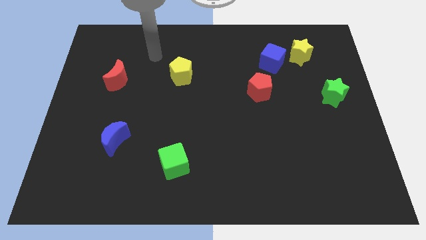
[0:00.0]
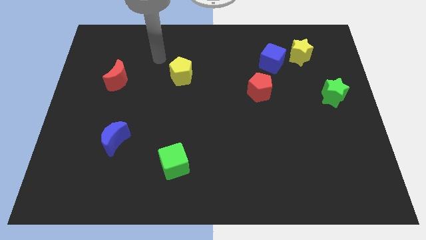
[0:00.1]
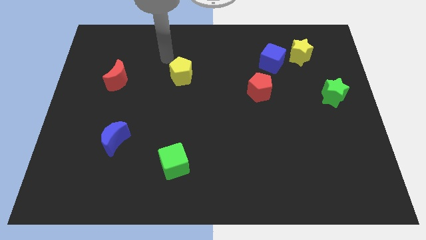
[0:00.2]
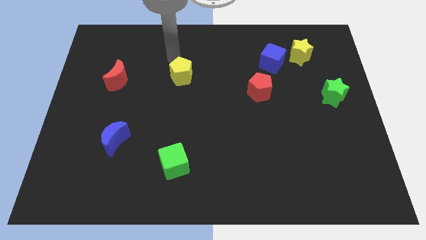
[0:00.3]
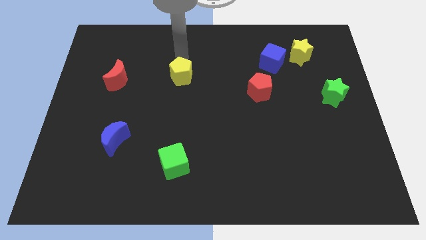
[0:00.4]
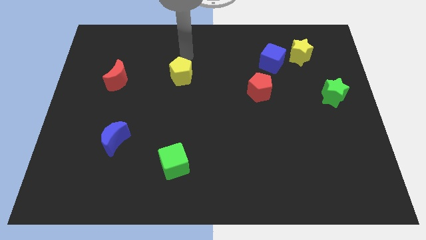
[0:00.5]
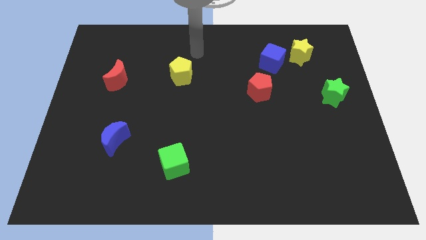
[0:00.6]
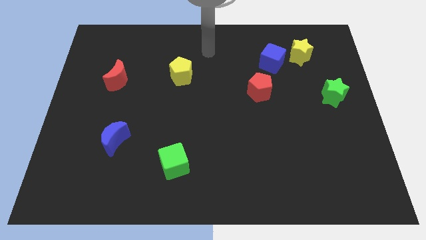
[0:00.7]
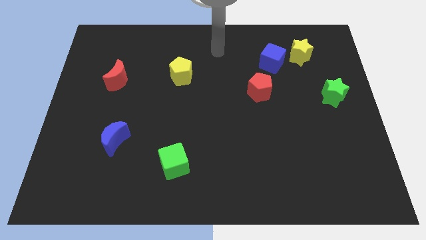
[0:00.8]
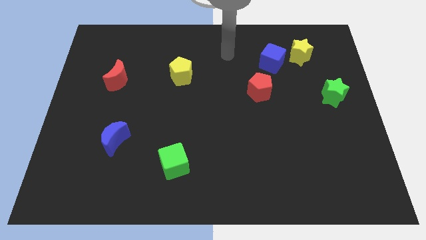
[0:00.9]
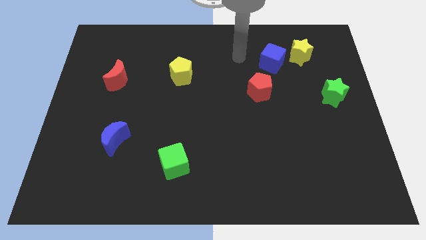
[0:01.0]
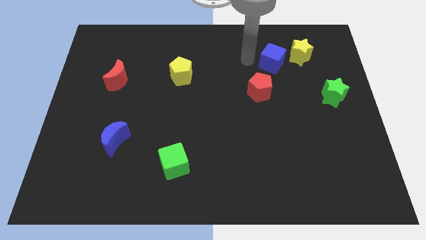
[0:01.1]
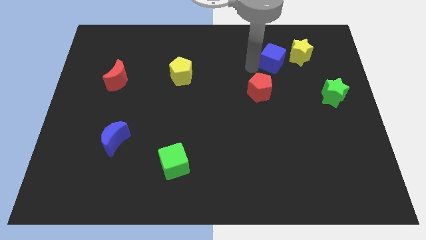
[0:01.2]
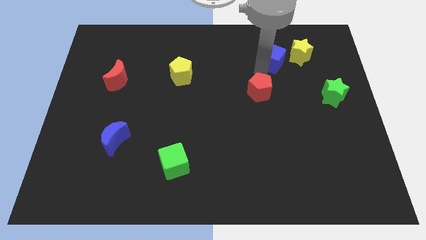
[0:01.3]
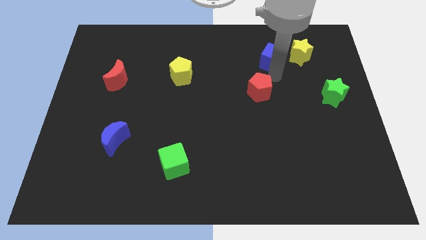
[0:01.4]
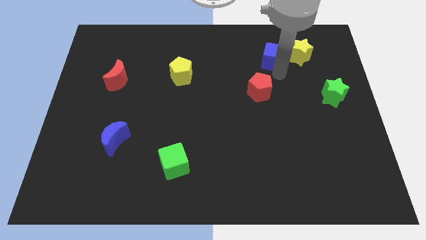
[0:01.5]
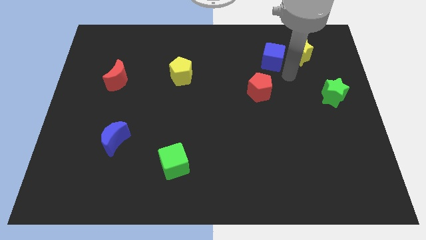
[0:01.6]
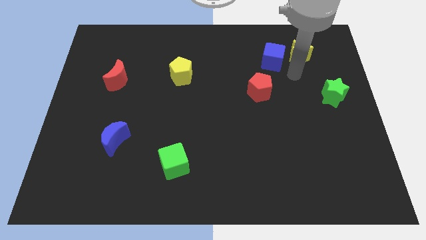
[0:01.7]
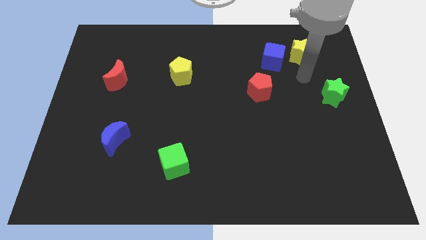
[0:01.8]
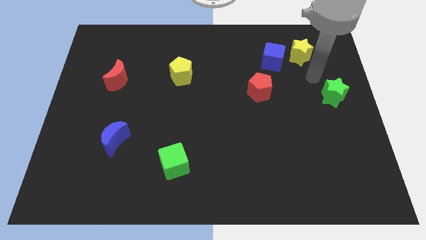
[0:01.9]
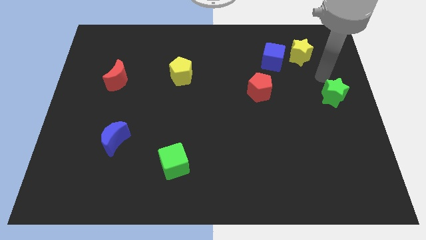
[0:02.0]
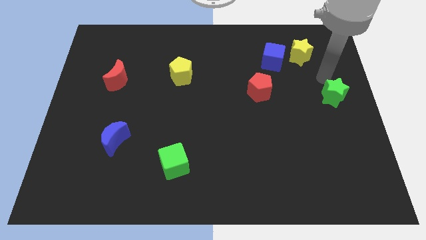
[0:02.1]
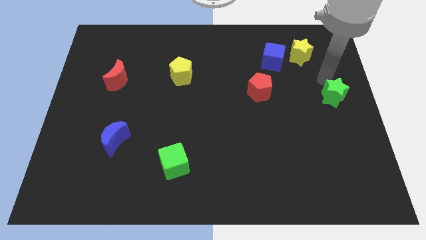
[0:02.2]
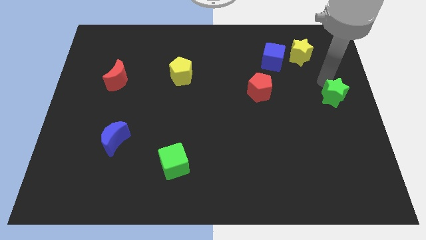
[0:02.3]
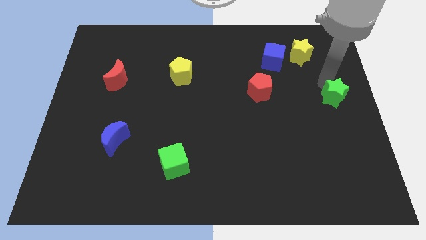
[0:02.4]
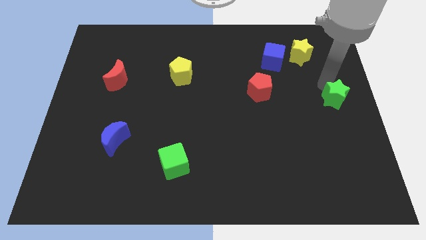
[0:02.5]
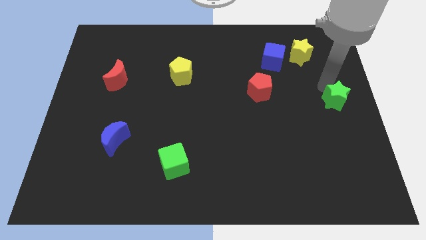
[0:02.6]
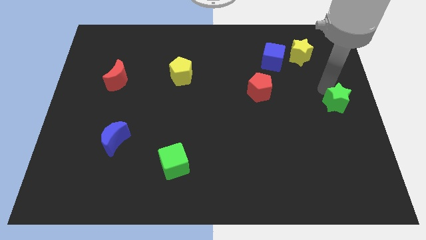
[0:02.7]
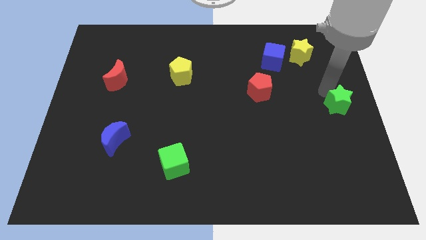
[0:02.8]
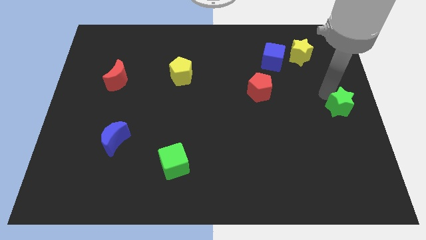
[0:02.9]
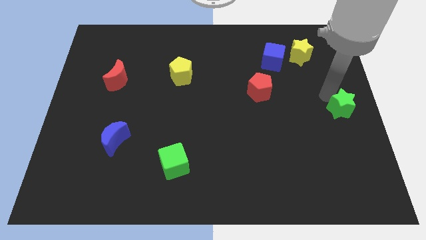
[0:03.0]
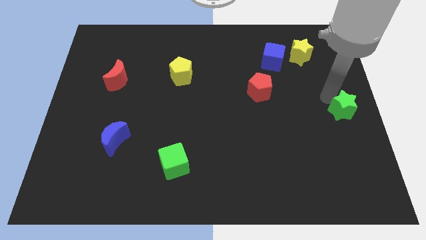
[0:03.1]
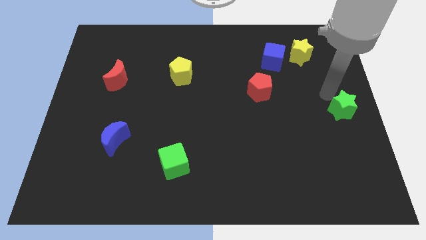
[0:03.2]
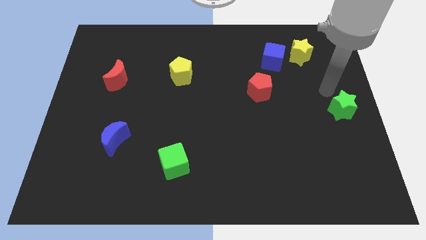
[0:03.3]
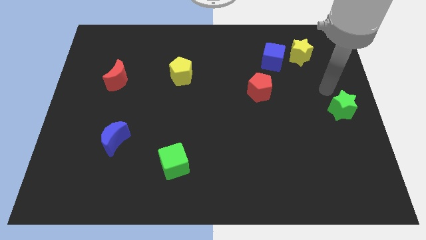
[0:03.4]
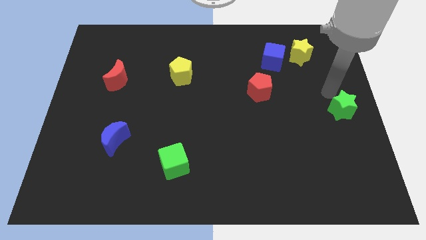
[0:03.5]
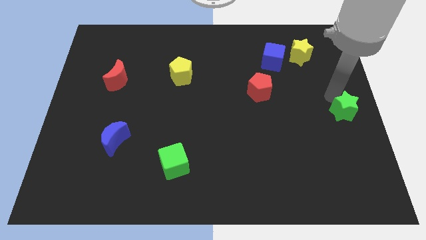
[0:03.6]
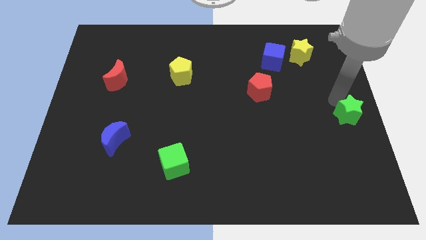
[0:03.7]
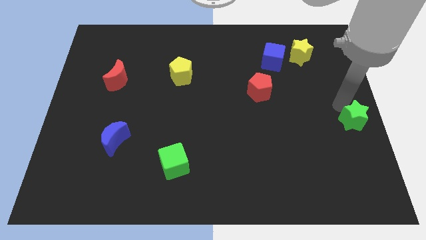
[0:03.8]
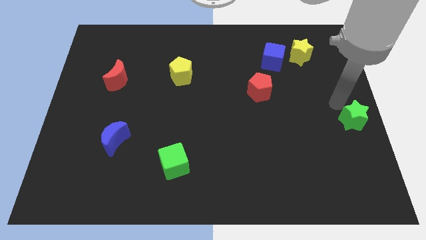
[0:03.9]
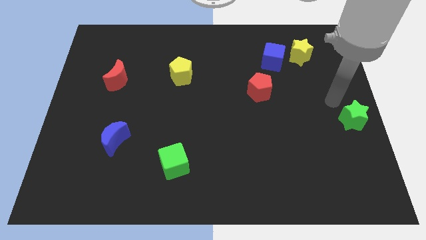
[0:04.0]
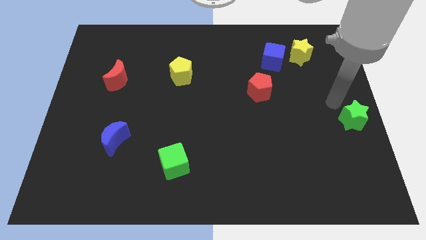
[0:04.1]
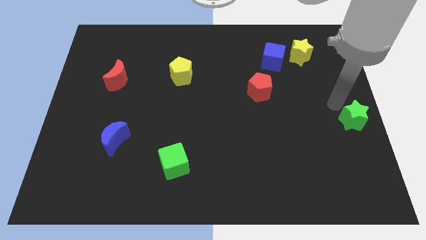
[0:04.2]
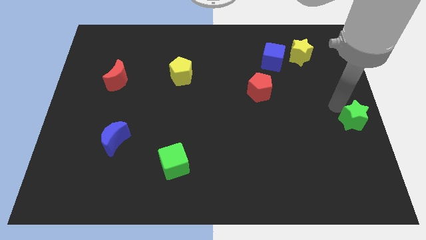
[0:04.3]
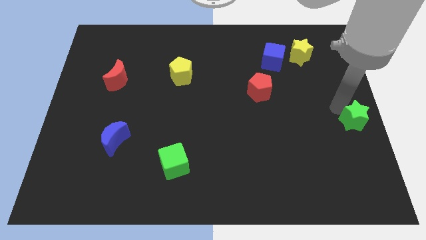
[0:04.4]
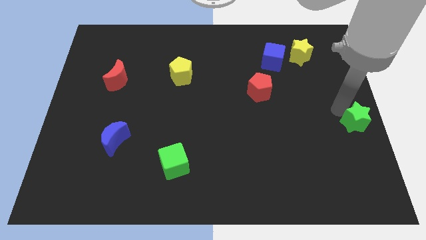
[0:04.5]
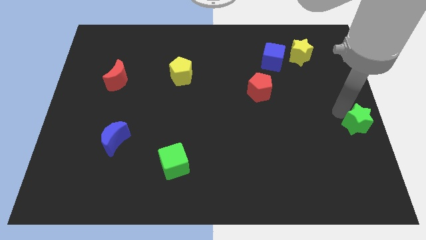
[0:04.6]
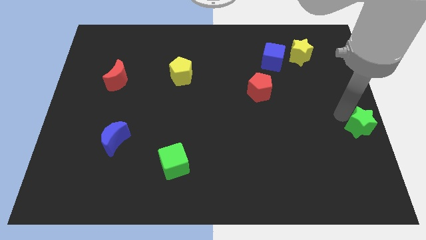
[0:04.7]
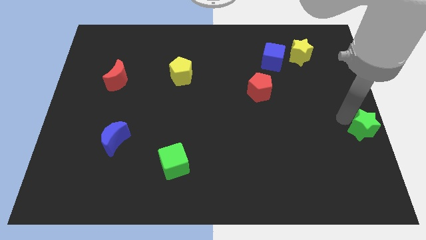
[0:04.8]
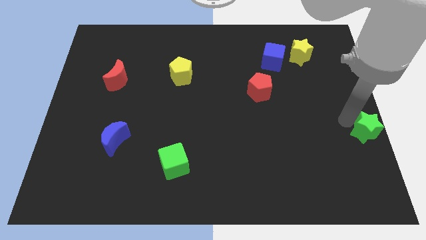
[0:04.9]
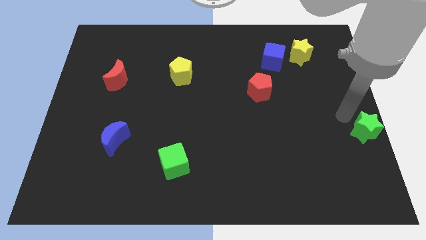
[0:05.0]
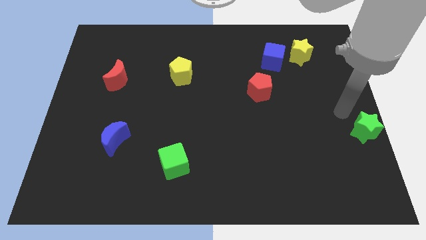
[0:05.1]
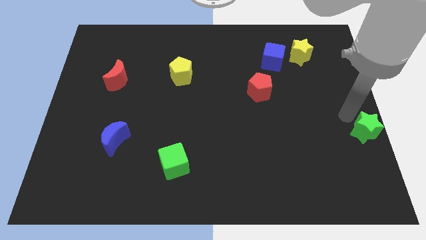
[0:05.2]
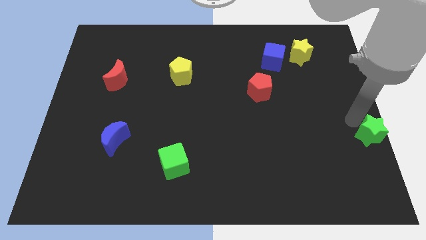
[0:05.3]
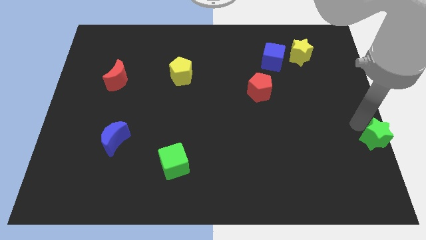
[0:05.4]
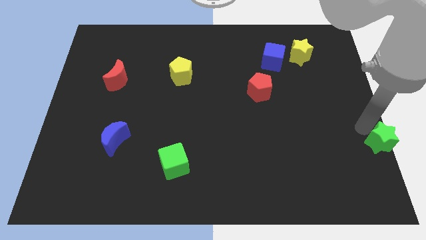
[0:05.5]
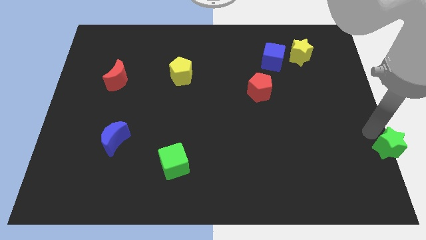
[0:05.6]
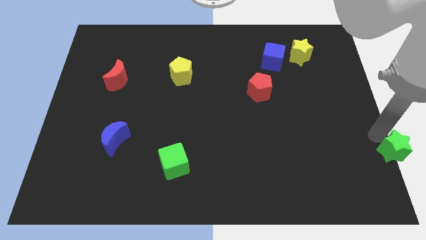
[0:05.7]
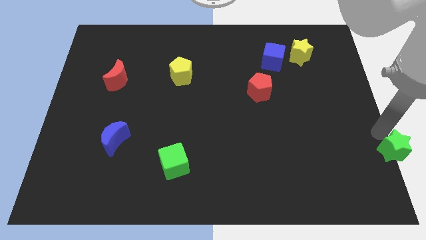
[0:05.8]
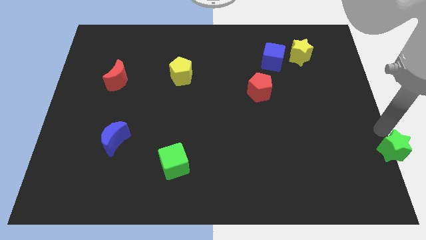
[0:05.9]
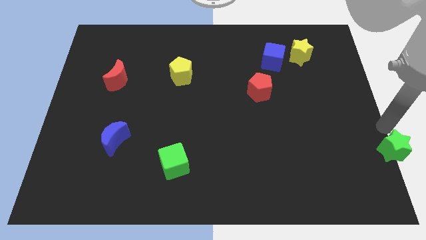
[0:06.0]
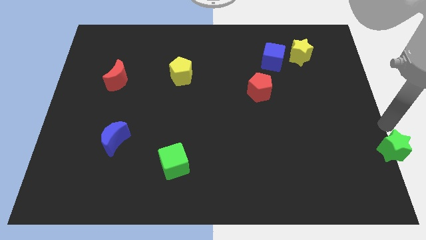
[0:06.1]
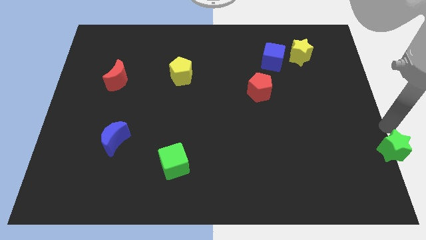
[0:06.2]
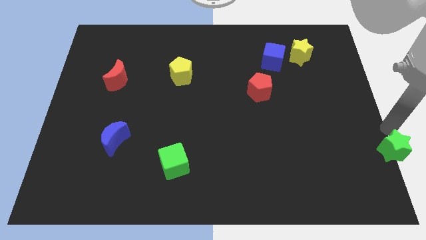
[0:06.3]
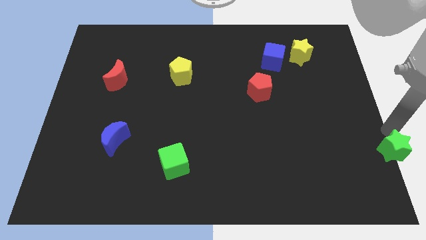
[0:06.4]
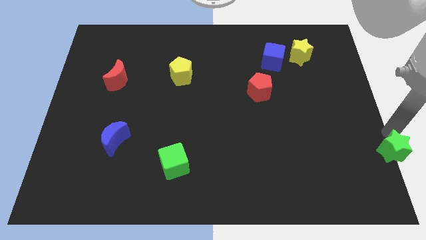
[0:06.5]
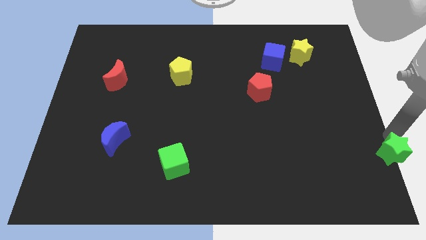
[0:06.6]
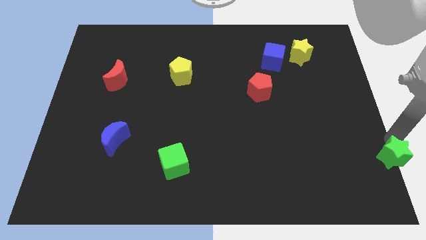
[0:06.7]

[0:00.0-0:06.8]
slide the green star to the bottom right of the board
